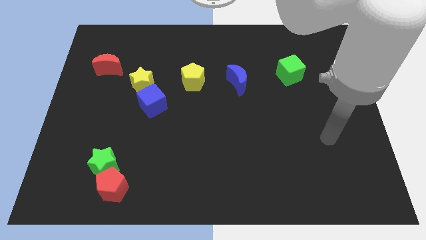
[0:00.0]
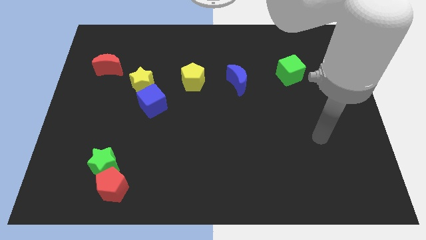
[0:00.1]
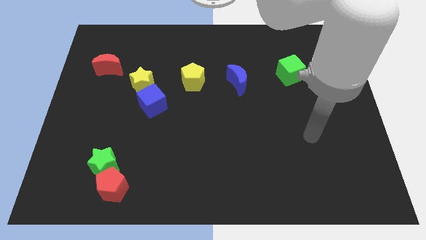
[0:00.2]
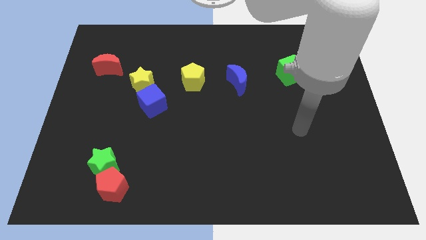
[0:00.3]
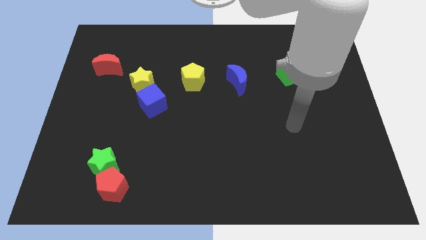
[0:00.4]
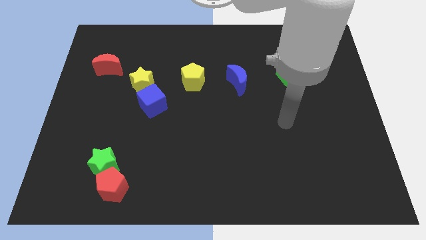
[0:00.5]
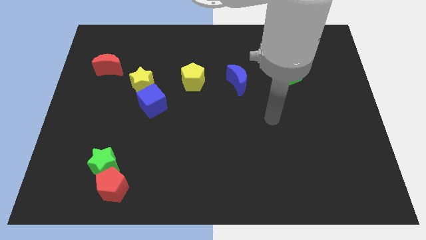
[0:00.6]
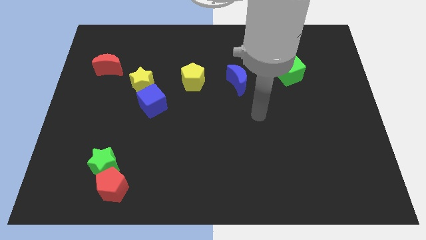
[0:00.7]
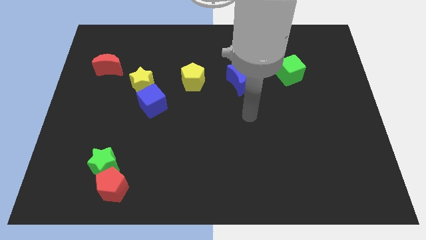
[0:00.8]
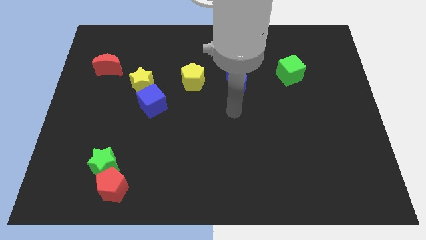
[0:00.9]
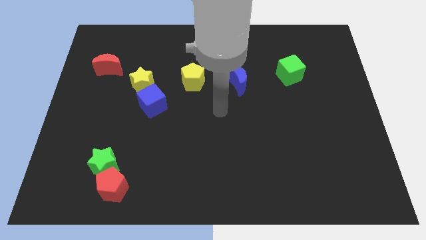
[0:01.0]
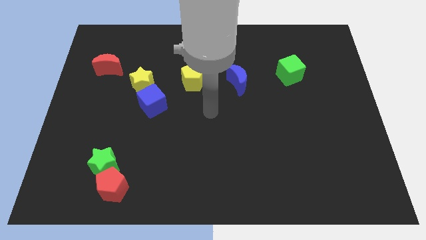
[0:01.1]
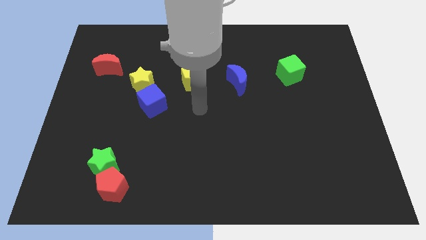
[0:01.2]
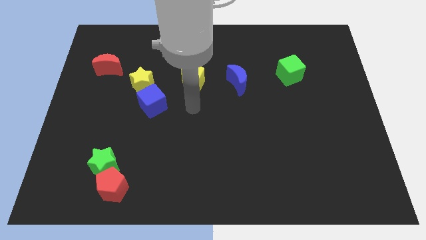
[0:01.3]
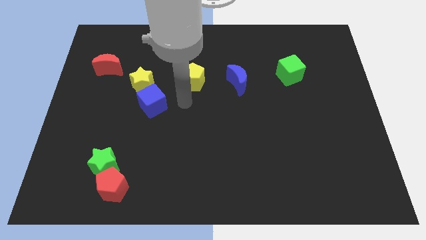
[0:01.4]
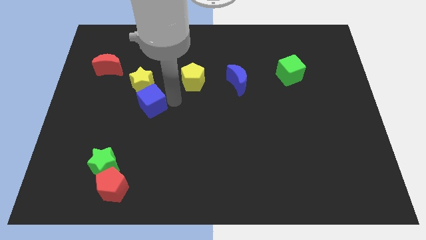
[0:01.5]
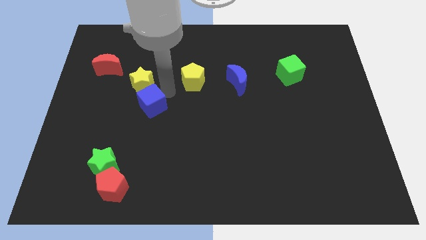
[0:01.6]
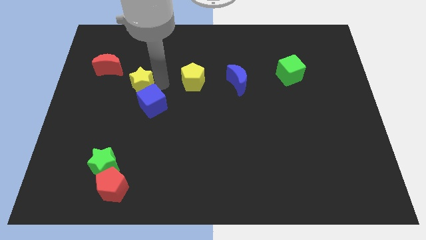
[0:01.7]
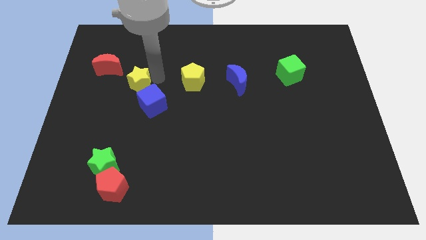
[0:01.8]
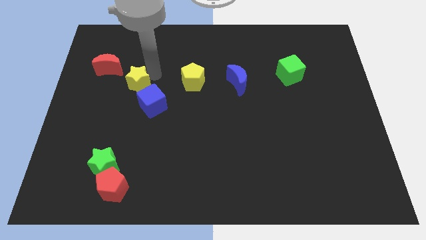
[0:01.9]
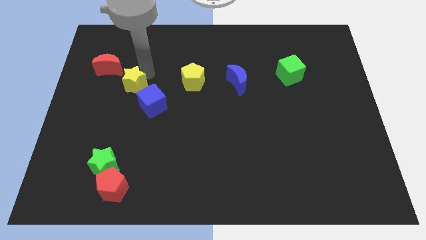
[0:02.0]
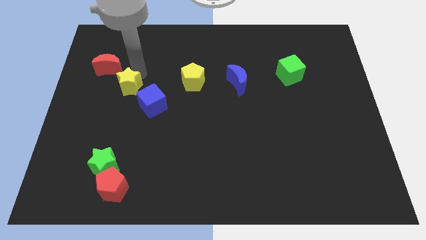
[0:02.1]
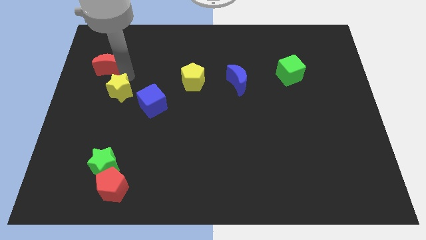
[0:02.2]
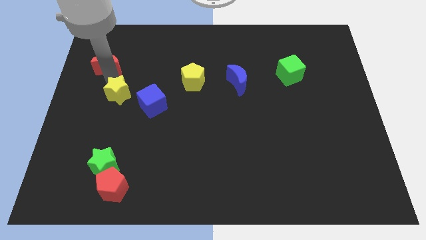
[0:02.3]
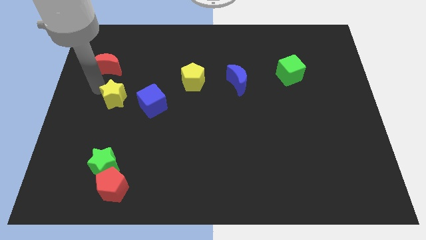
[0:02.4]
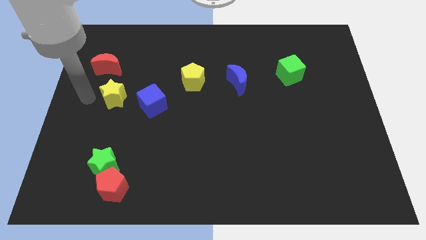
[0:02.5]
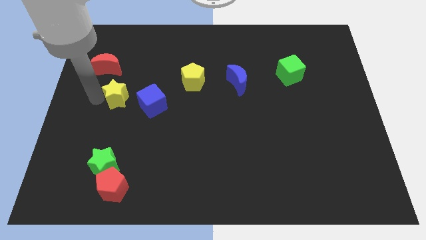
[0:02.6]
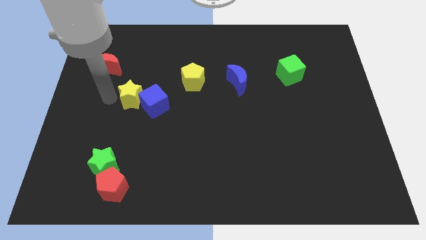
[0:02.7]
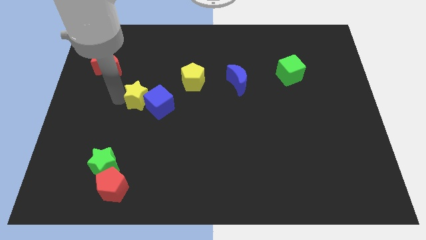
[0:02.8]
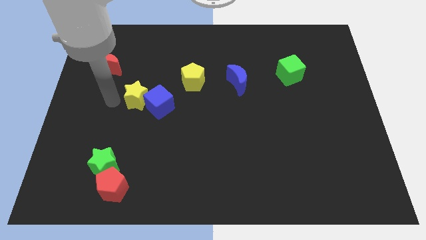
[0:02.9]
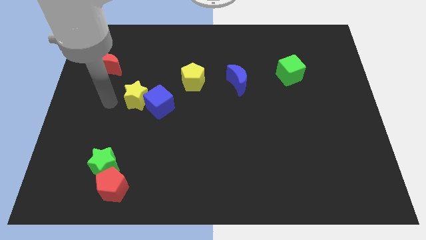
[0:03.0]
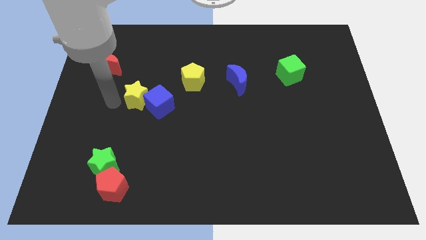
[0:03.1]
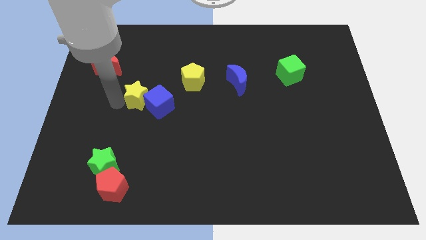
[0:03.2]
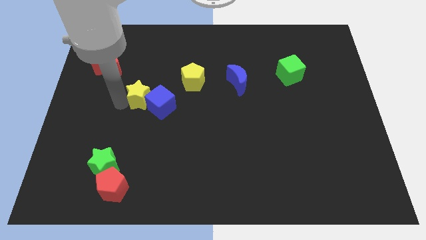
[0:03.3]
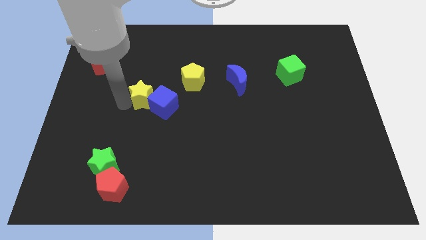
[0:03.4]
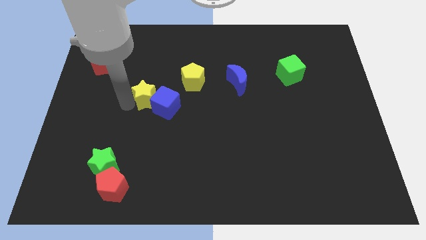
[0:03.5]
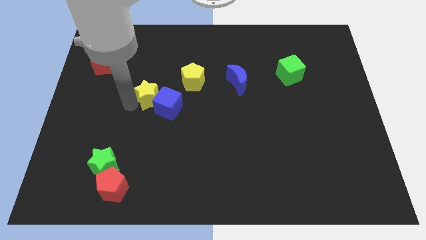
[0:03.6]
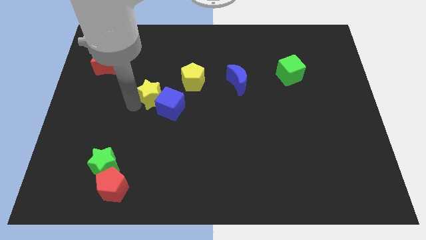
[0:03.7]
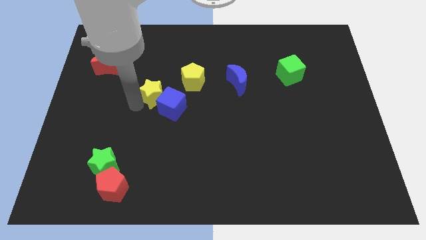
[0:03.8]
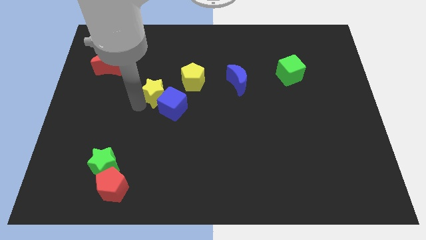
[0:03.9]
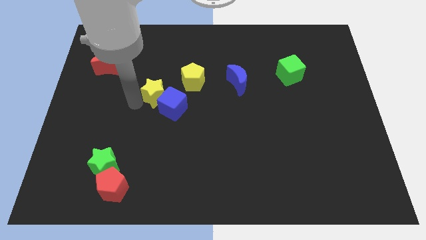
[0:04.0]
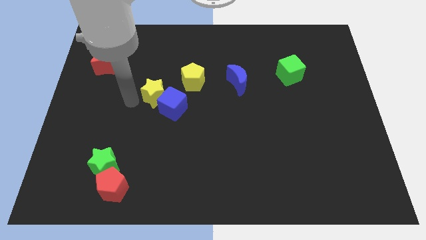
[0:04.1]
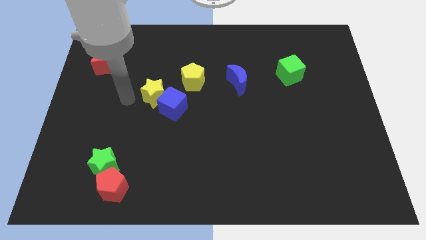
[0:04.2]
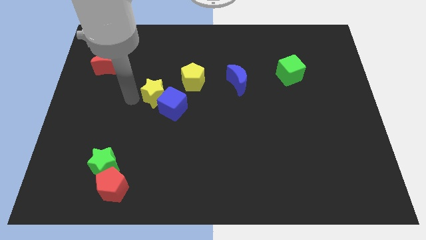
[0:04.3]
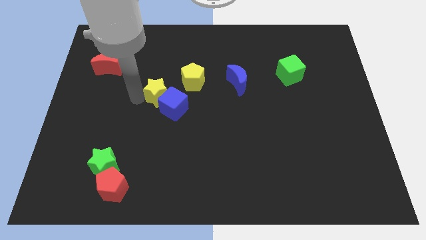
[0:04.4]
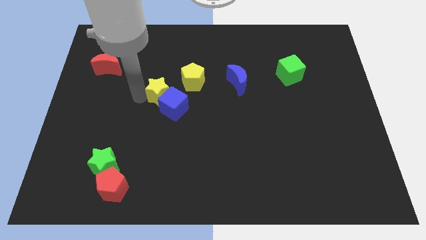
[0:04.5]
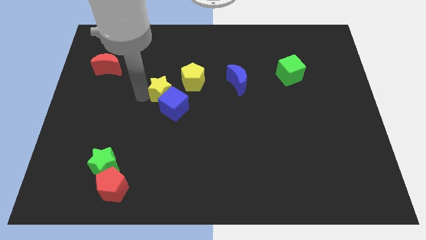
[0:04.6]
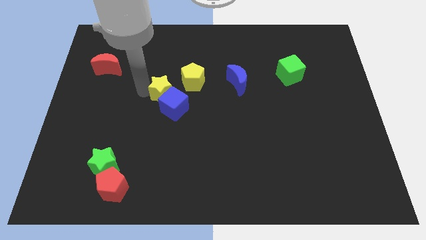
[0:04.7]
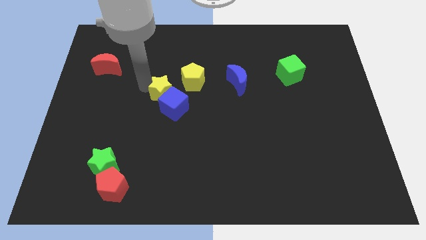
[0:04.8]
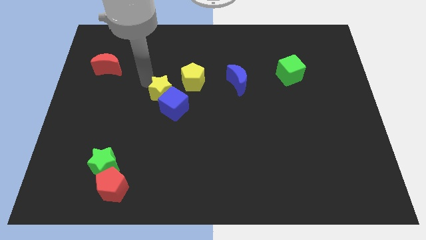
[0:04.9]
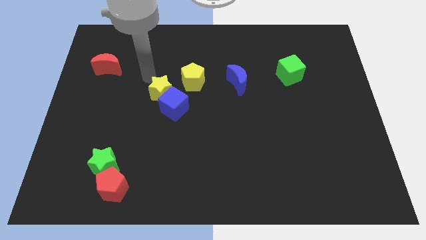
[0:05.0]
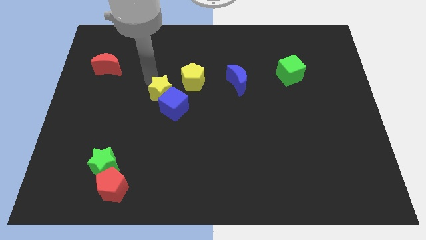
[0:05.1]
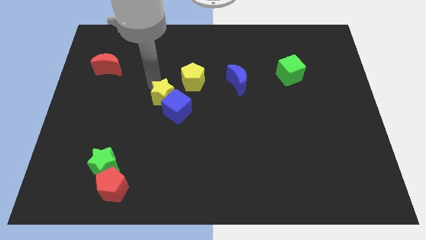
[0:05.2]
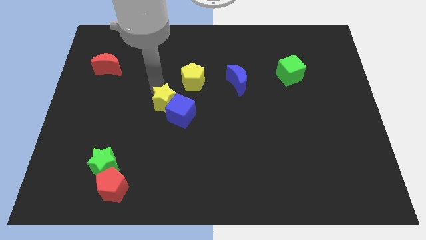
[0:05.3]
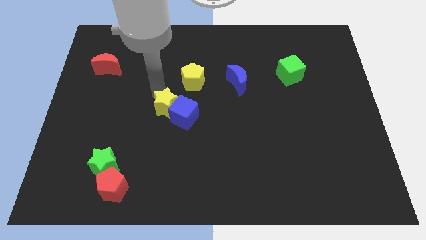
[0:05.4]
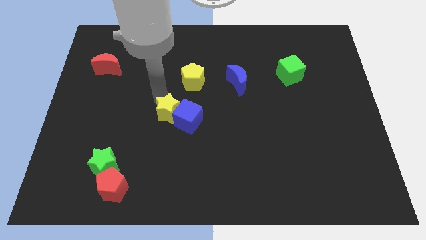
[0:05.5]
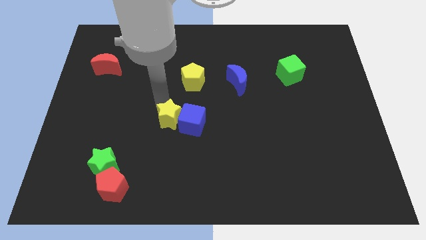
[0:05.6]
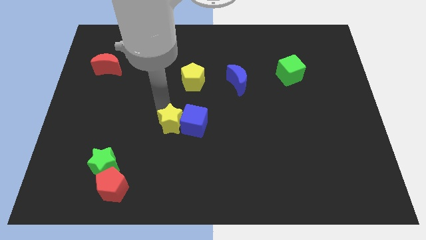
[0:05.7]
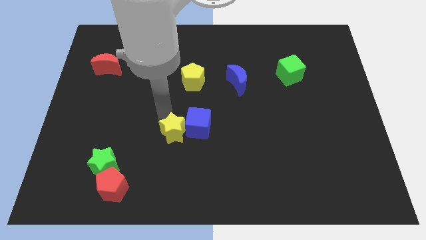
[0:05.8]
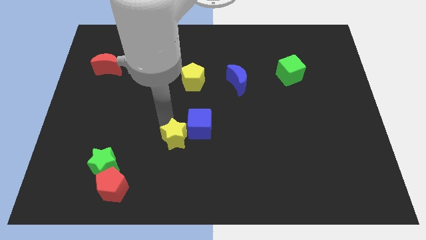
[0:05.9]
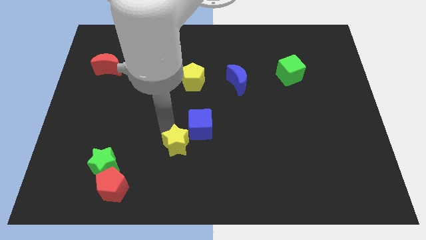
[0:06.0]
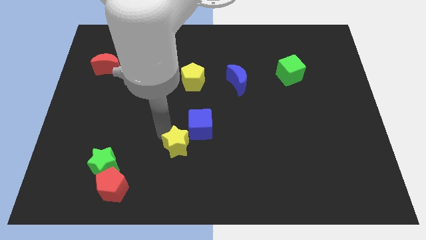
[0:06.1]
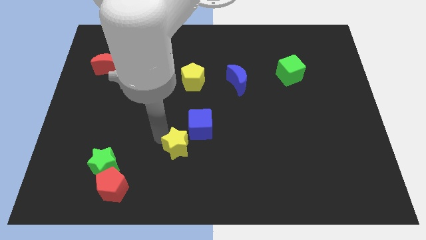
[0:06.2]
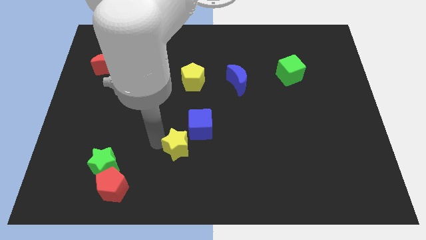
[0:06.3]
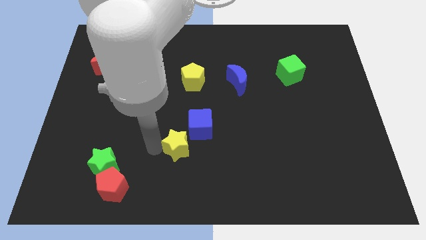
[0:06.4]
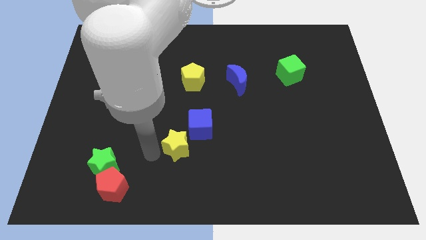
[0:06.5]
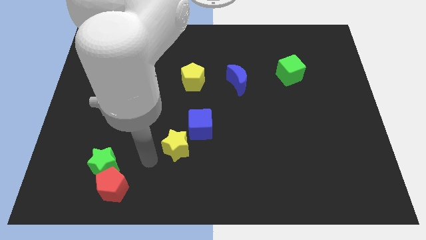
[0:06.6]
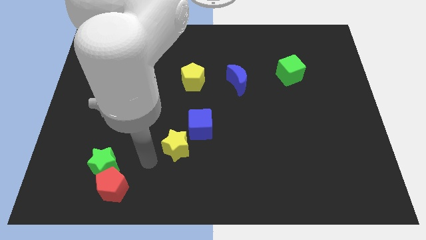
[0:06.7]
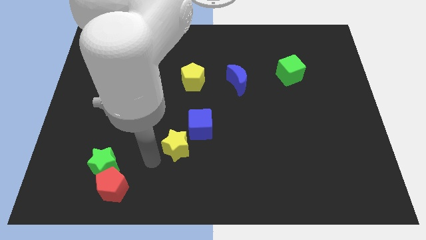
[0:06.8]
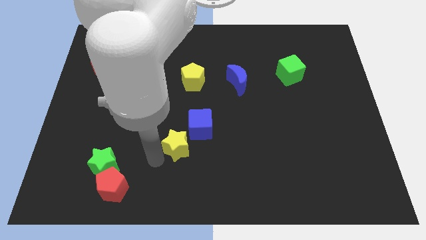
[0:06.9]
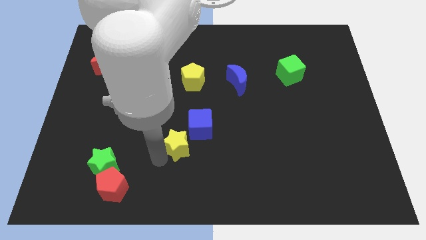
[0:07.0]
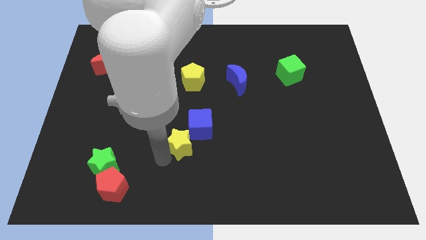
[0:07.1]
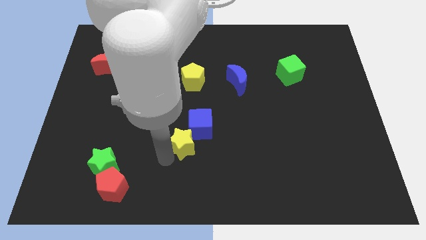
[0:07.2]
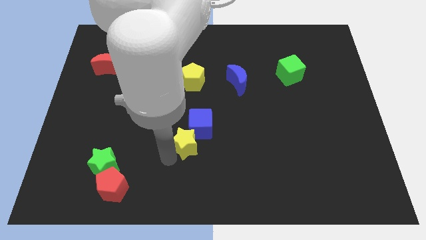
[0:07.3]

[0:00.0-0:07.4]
push the yellow star downwards and then to the right

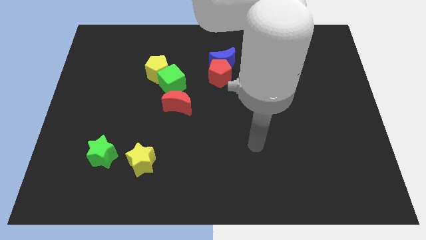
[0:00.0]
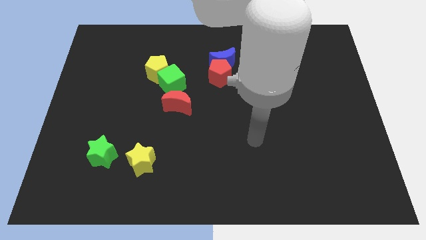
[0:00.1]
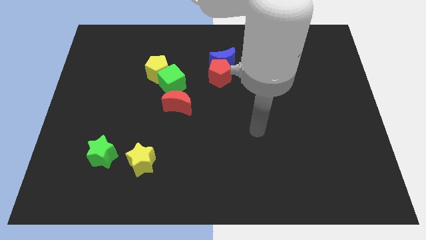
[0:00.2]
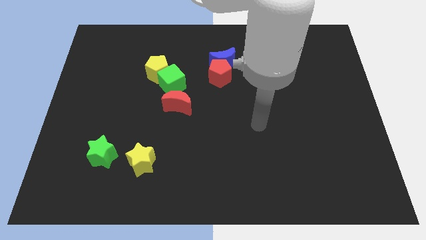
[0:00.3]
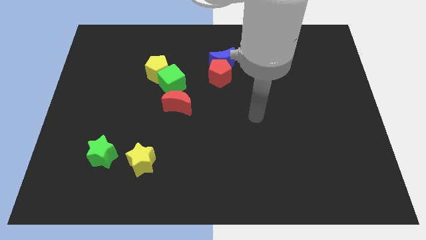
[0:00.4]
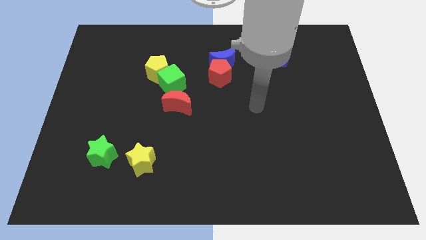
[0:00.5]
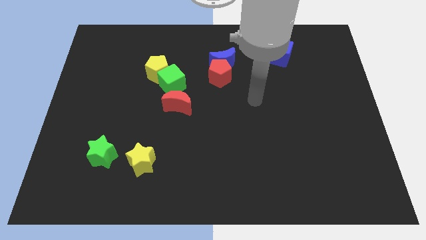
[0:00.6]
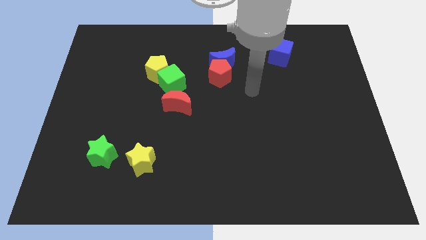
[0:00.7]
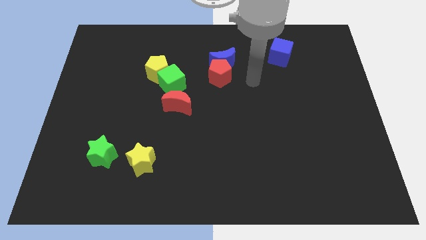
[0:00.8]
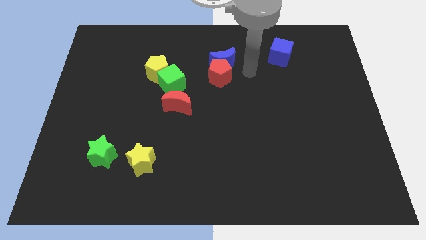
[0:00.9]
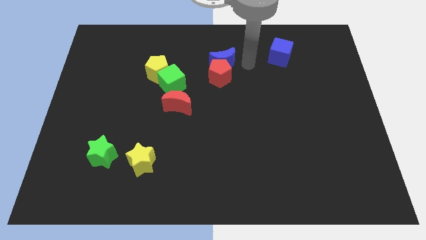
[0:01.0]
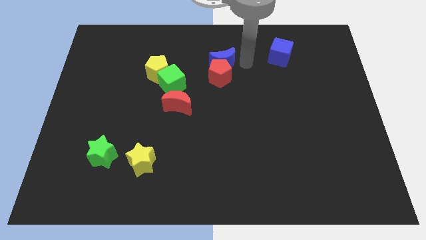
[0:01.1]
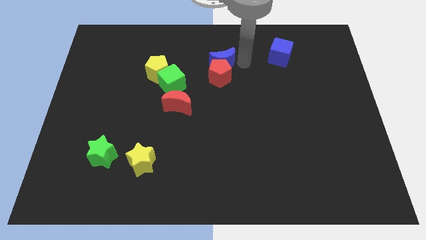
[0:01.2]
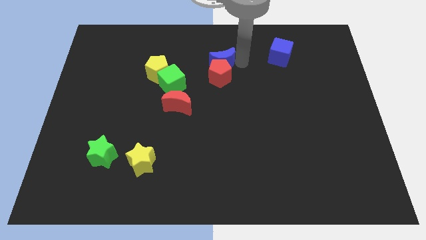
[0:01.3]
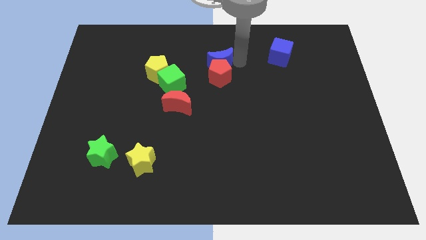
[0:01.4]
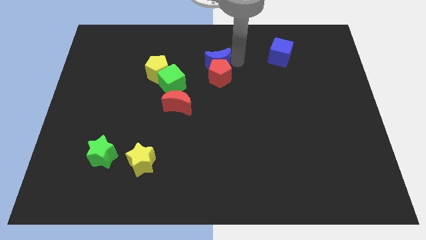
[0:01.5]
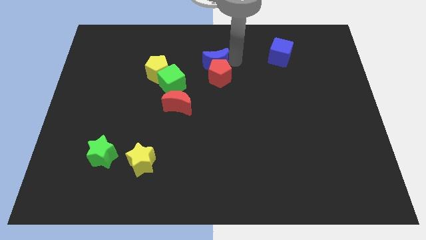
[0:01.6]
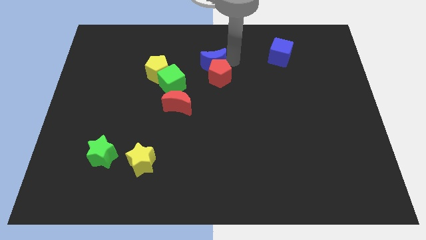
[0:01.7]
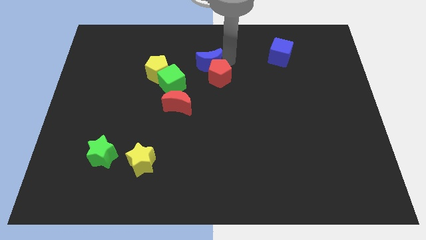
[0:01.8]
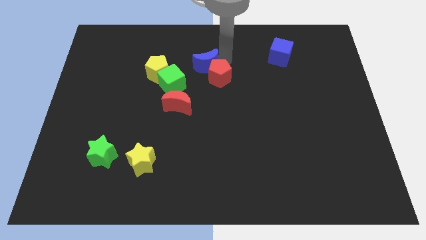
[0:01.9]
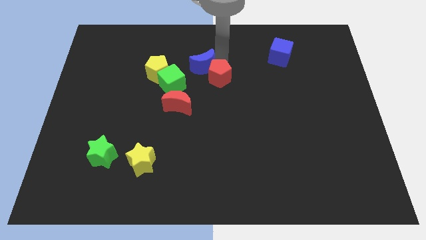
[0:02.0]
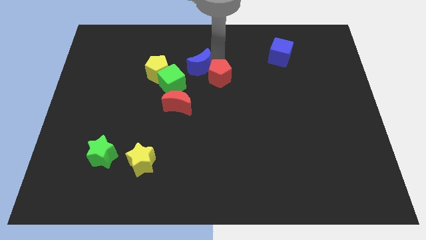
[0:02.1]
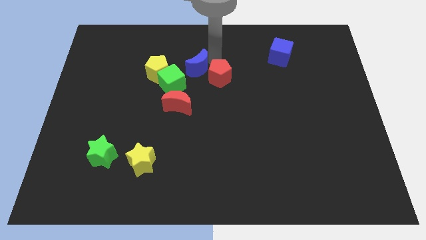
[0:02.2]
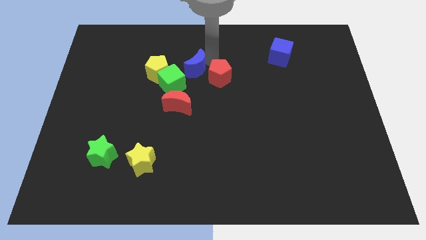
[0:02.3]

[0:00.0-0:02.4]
push the blue moon slightly to the left
